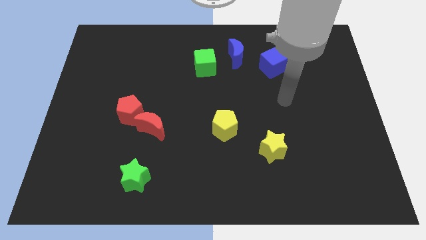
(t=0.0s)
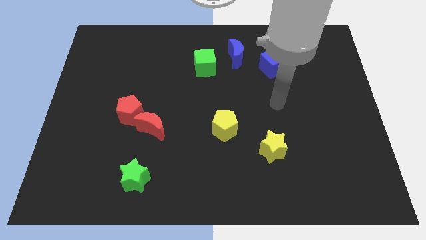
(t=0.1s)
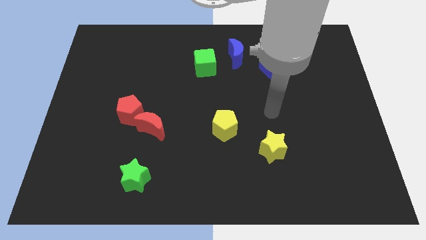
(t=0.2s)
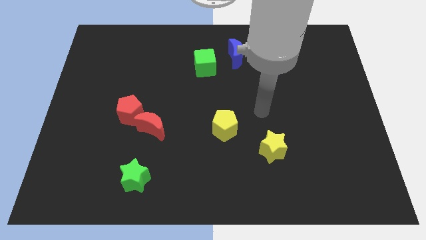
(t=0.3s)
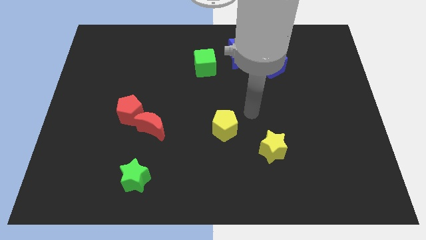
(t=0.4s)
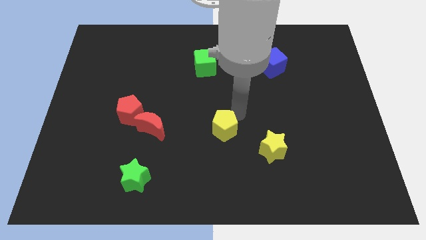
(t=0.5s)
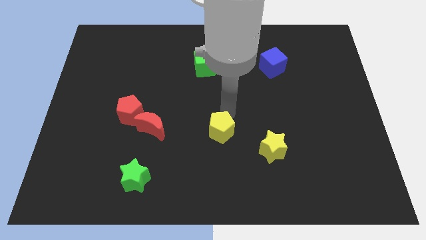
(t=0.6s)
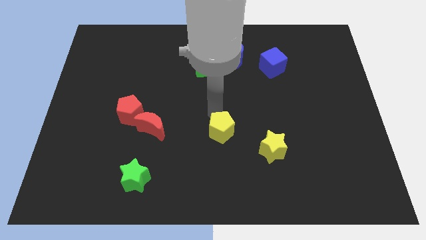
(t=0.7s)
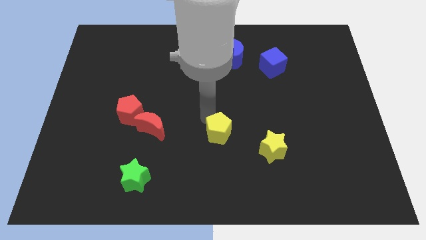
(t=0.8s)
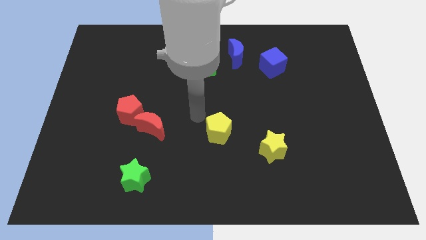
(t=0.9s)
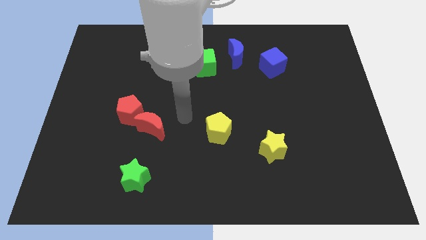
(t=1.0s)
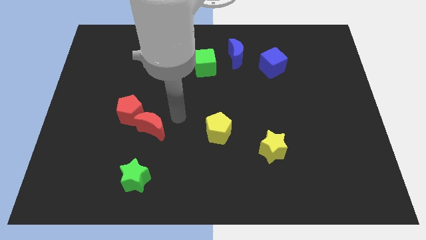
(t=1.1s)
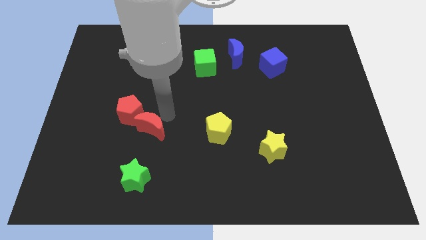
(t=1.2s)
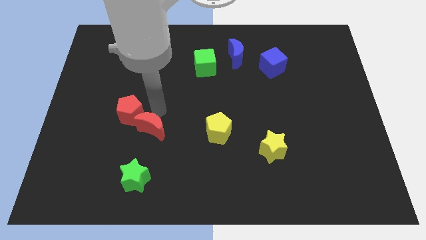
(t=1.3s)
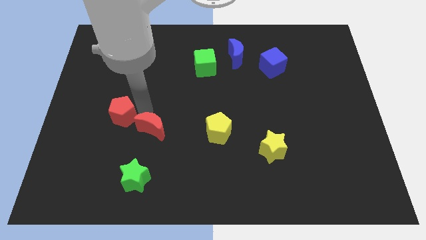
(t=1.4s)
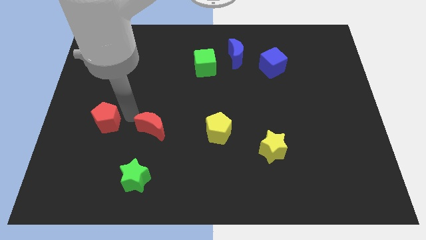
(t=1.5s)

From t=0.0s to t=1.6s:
move the red moon away from the red pentagon

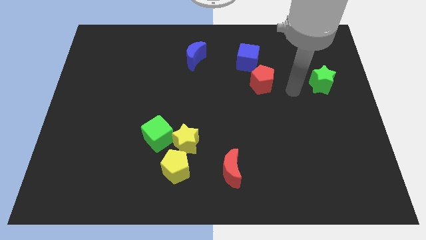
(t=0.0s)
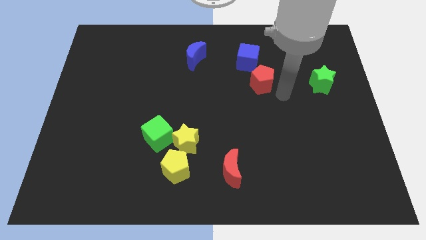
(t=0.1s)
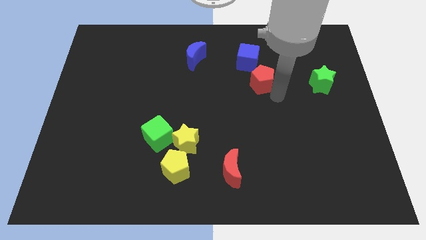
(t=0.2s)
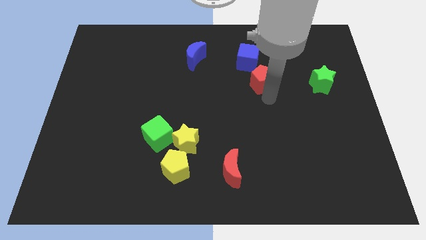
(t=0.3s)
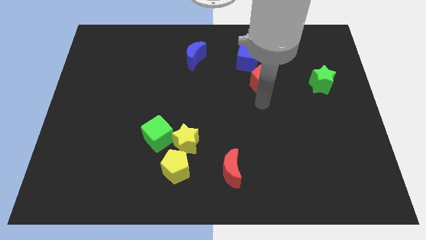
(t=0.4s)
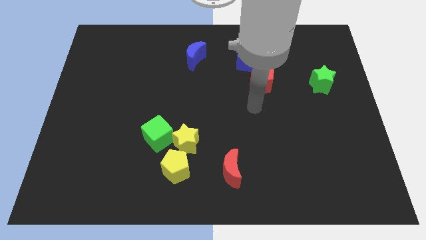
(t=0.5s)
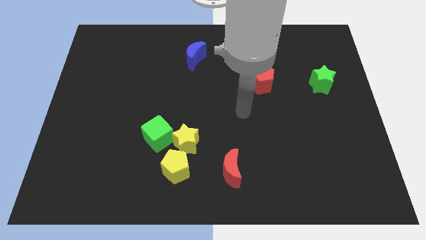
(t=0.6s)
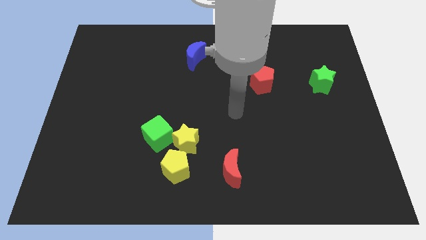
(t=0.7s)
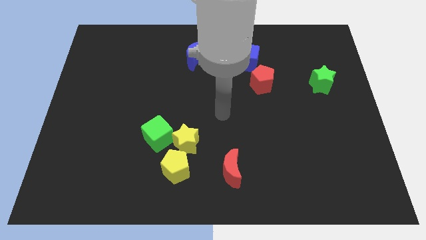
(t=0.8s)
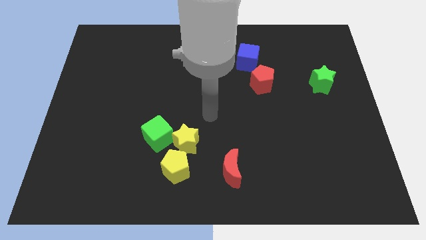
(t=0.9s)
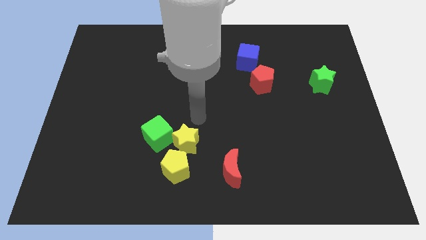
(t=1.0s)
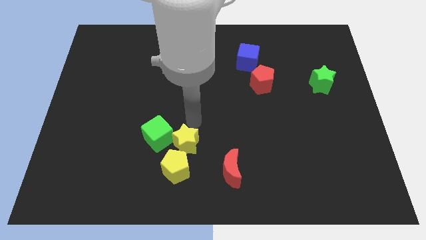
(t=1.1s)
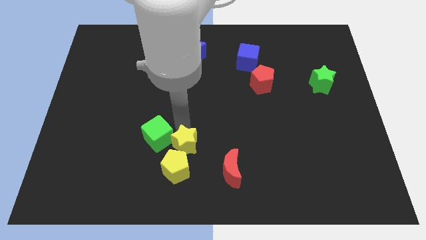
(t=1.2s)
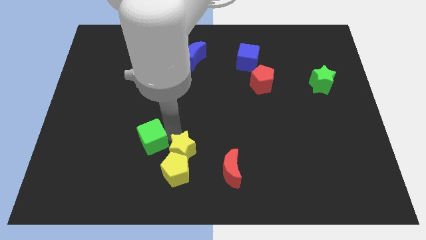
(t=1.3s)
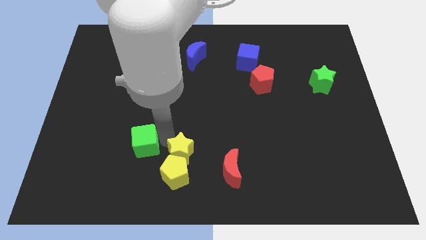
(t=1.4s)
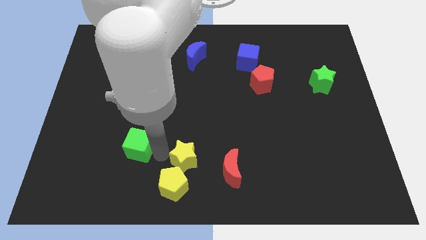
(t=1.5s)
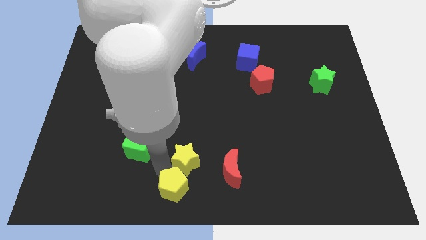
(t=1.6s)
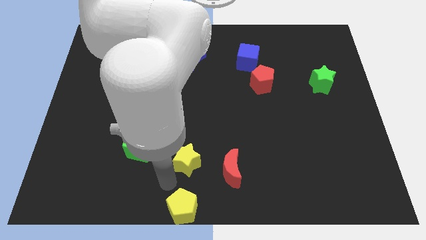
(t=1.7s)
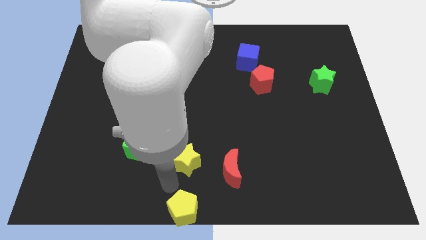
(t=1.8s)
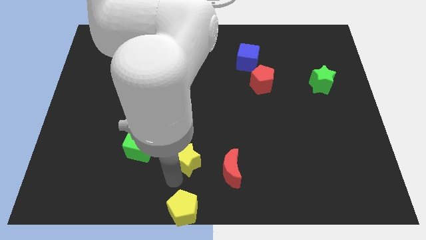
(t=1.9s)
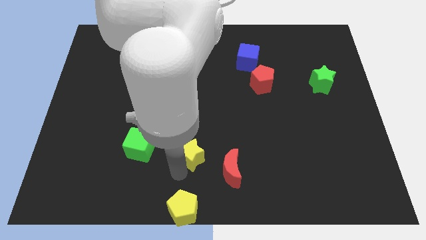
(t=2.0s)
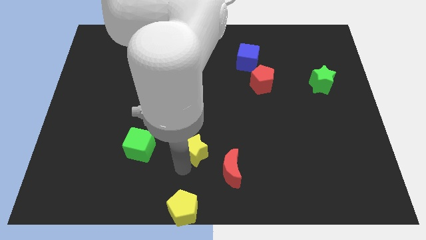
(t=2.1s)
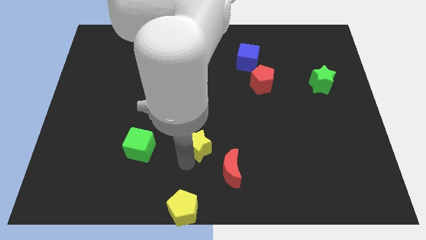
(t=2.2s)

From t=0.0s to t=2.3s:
move the yellow star away from the yellow pentagon and green cube

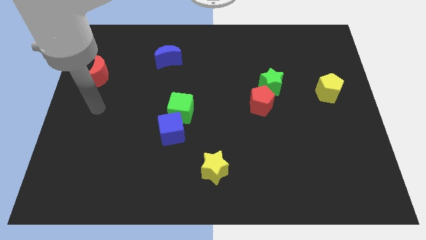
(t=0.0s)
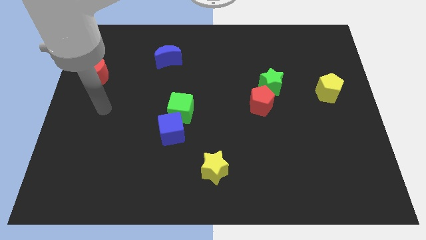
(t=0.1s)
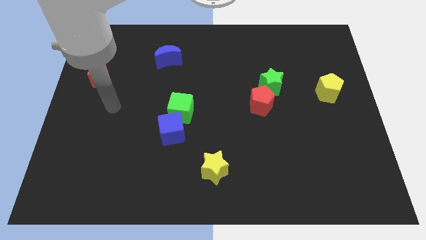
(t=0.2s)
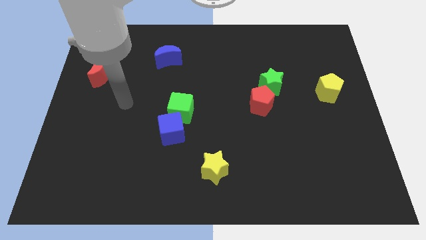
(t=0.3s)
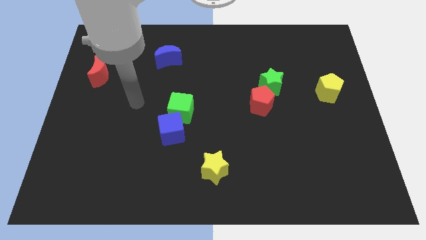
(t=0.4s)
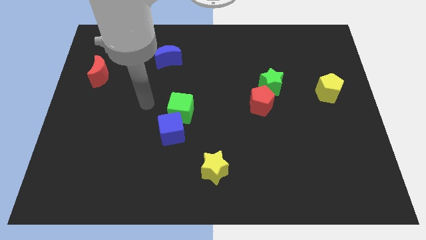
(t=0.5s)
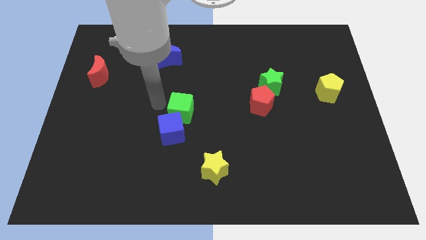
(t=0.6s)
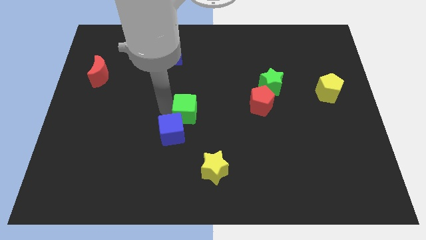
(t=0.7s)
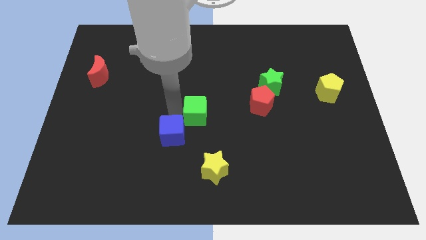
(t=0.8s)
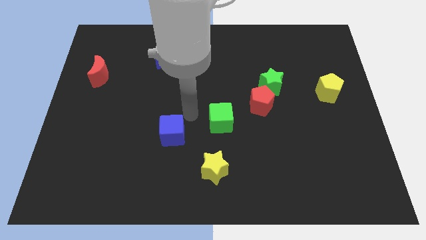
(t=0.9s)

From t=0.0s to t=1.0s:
pull the blue cube apart from the green cube

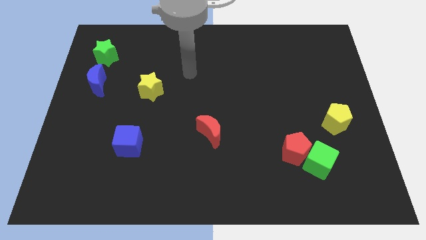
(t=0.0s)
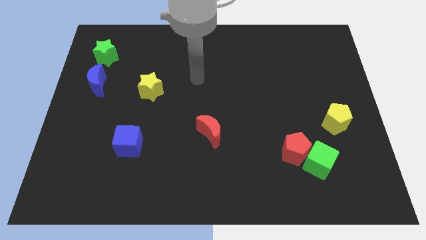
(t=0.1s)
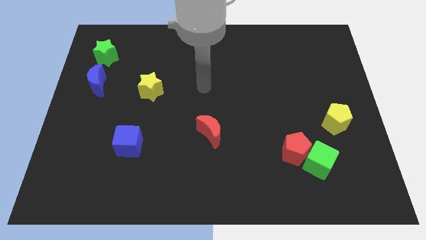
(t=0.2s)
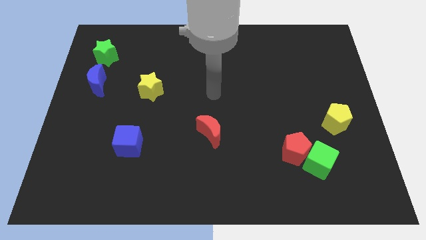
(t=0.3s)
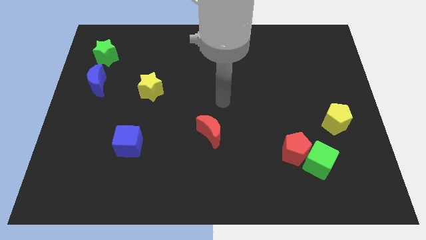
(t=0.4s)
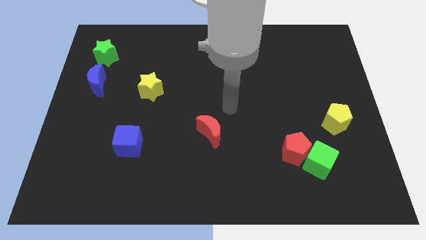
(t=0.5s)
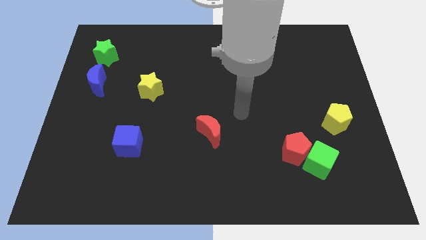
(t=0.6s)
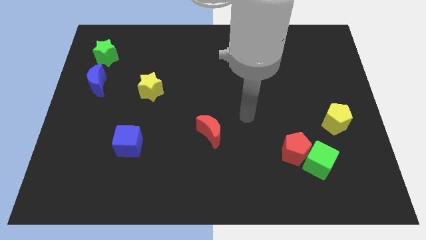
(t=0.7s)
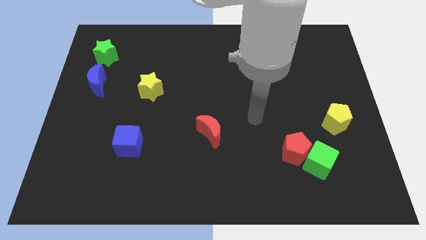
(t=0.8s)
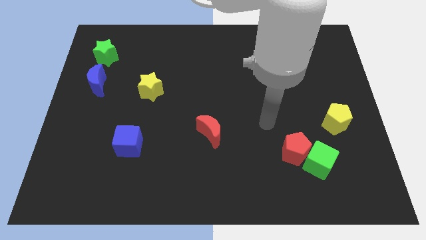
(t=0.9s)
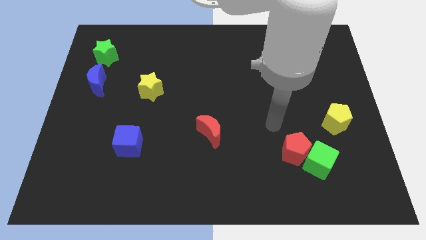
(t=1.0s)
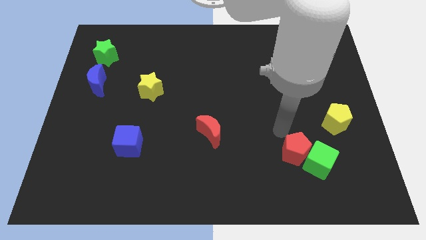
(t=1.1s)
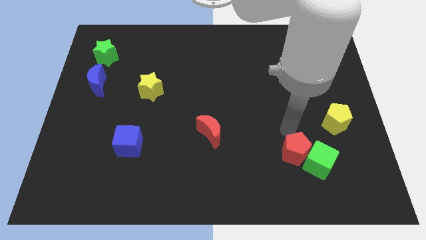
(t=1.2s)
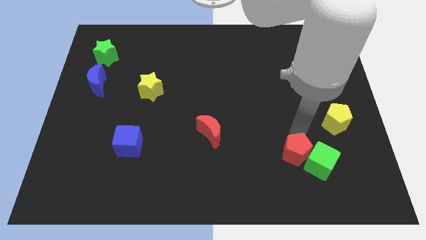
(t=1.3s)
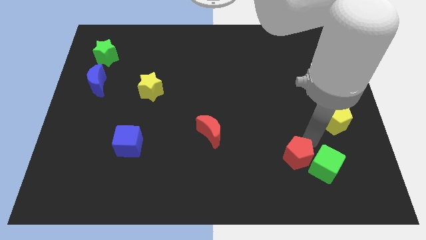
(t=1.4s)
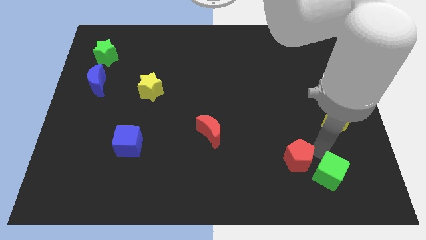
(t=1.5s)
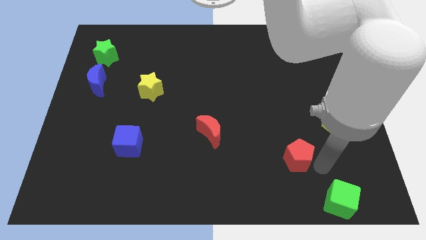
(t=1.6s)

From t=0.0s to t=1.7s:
pull the red pentagon apart from the green cube

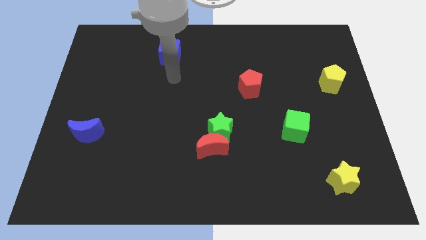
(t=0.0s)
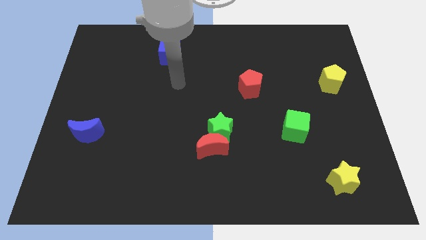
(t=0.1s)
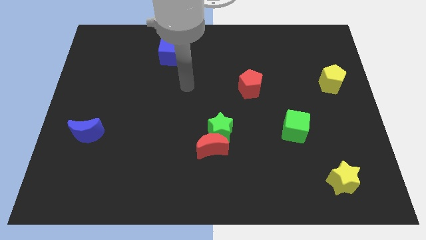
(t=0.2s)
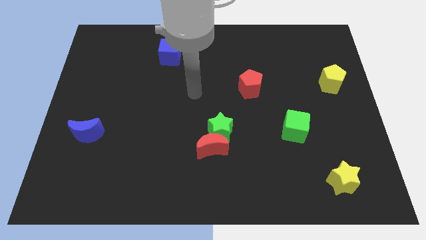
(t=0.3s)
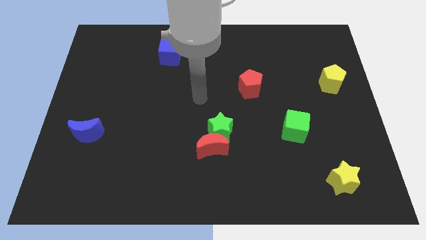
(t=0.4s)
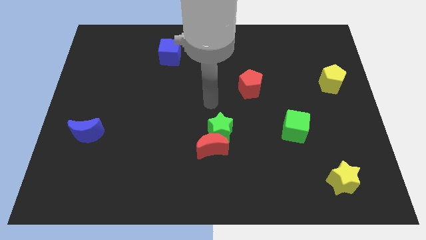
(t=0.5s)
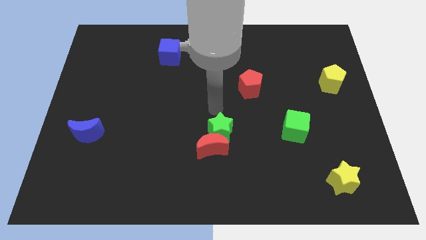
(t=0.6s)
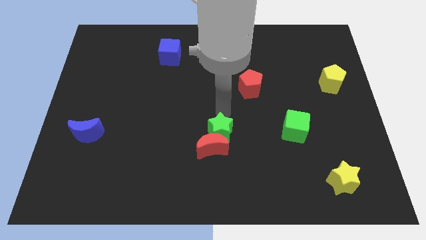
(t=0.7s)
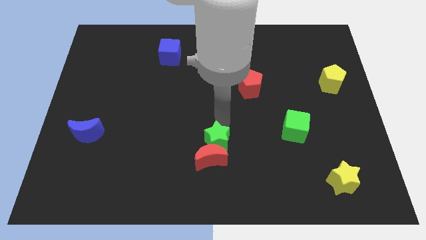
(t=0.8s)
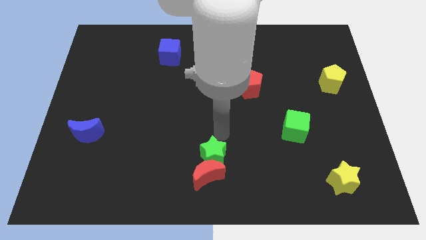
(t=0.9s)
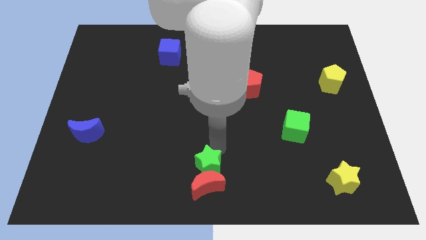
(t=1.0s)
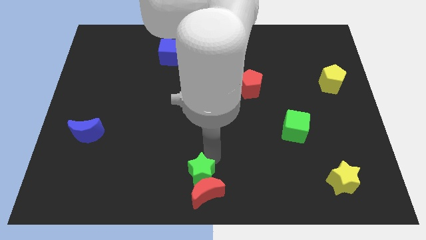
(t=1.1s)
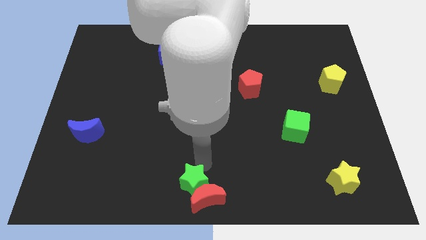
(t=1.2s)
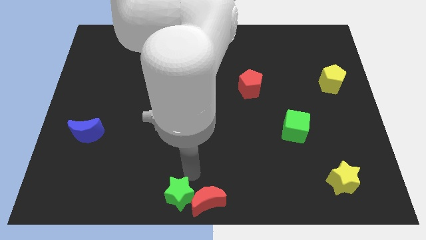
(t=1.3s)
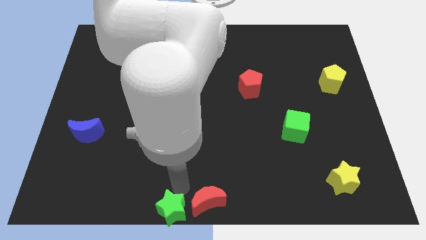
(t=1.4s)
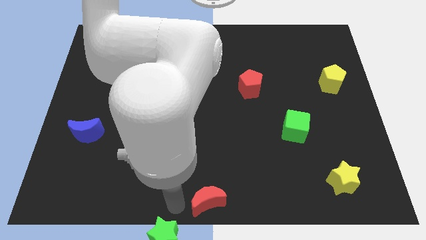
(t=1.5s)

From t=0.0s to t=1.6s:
move the red moon away from the green star

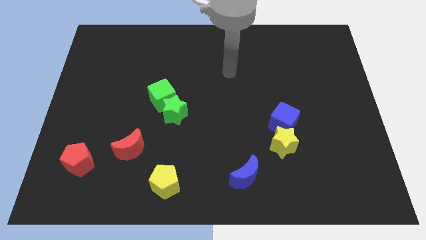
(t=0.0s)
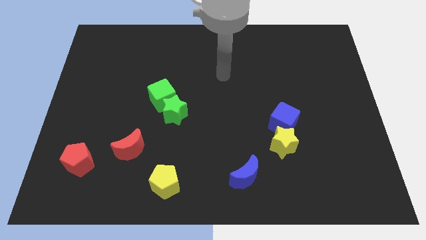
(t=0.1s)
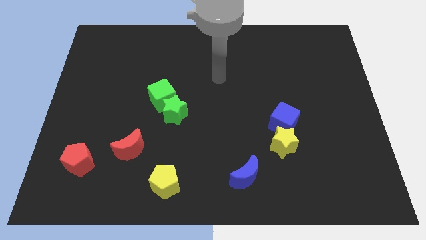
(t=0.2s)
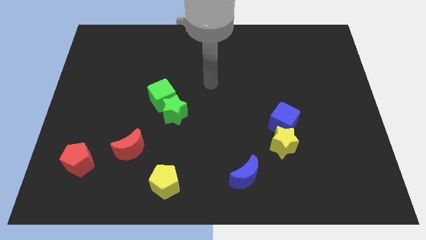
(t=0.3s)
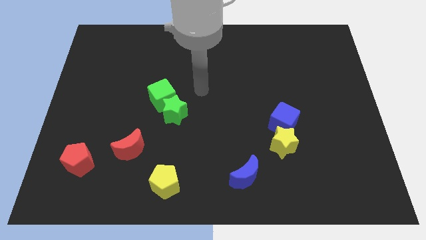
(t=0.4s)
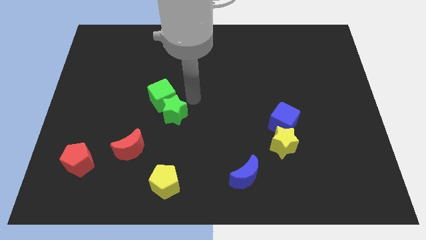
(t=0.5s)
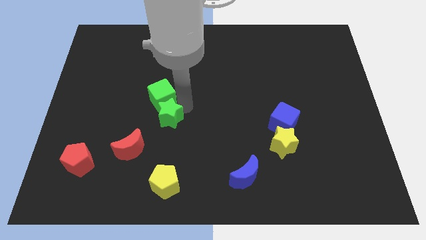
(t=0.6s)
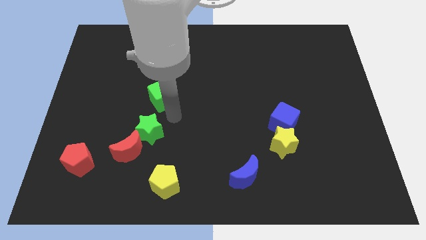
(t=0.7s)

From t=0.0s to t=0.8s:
pull the green cube apart from the green star

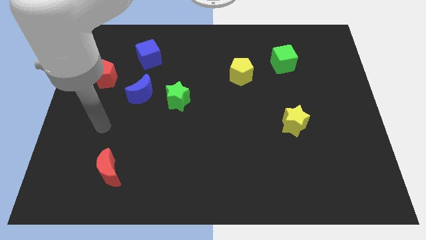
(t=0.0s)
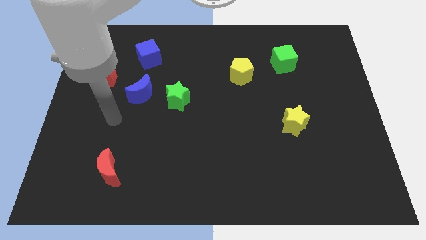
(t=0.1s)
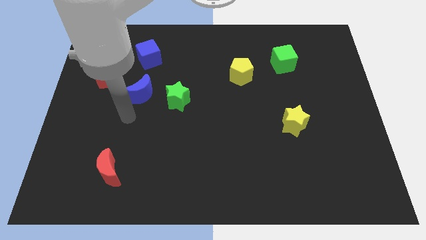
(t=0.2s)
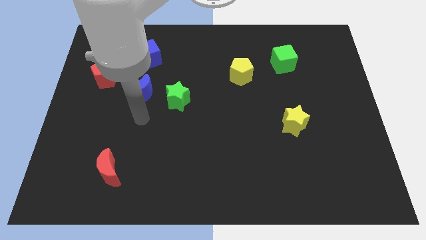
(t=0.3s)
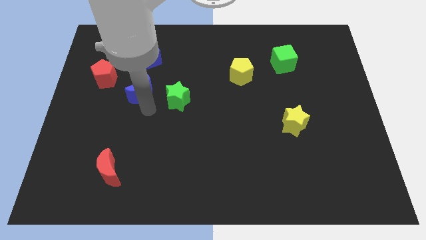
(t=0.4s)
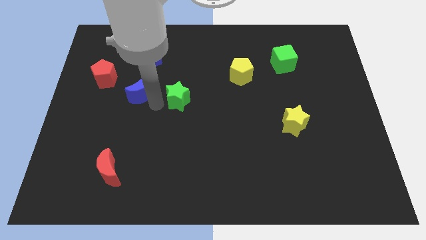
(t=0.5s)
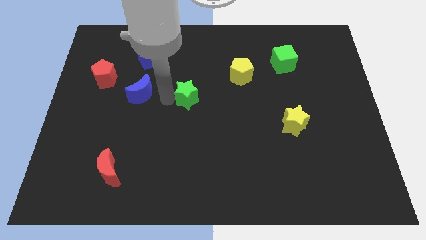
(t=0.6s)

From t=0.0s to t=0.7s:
pull the blue moon apart from the green star
